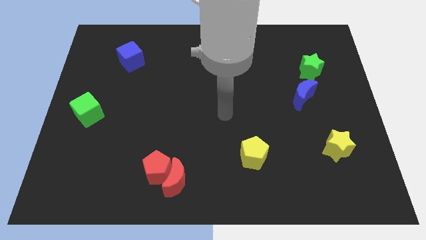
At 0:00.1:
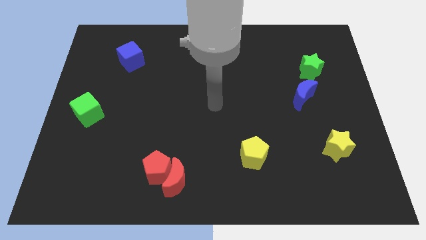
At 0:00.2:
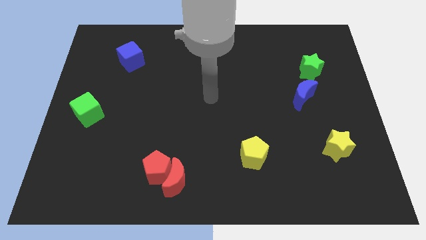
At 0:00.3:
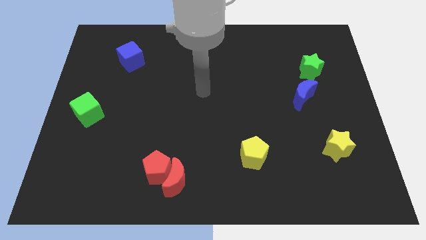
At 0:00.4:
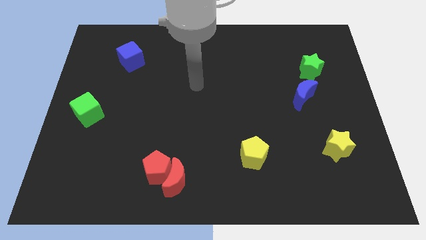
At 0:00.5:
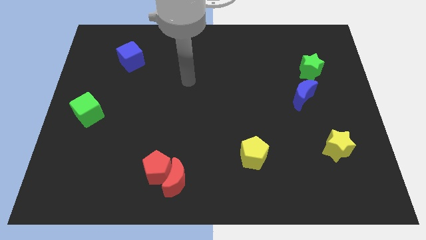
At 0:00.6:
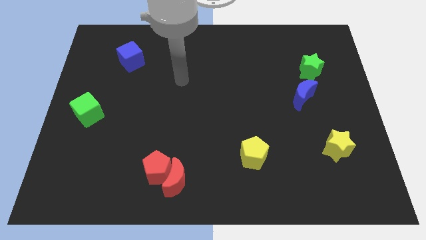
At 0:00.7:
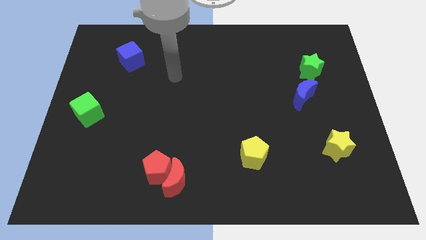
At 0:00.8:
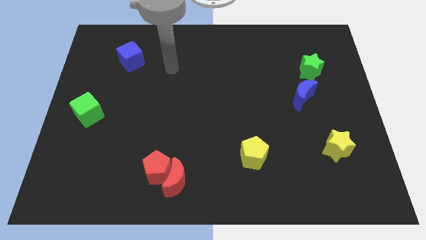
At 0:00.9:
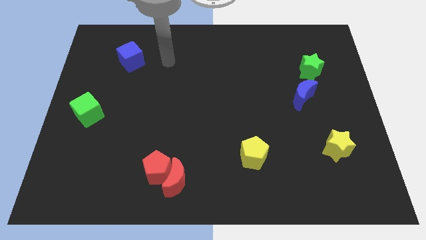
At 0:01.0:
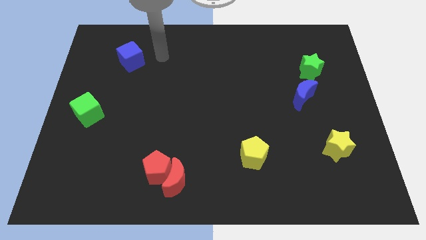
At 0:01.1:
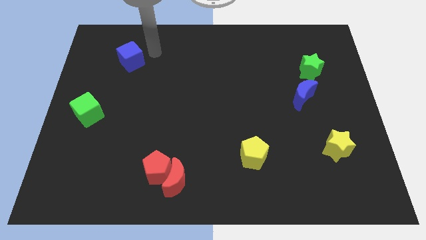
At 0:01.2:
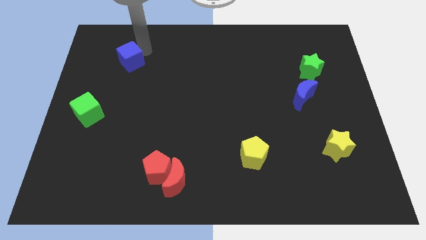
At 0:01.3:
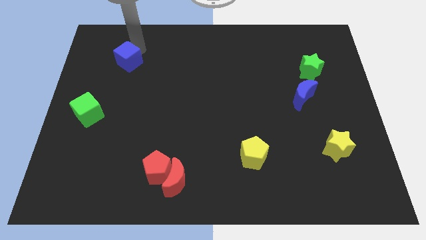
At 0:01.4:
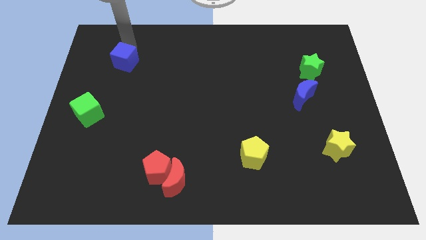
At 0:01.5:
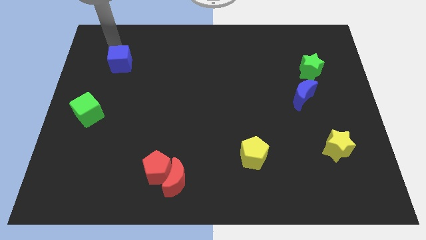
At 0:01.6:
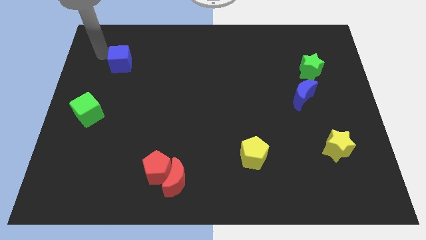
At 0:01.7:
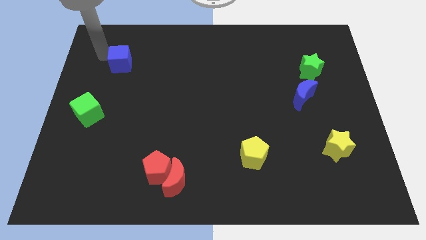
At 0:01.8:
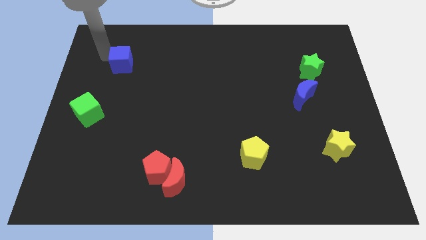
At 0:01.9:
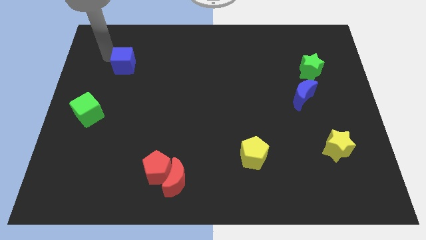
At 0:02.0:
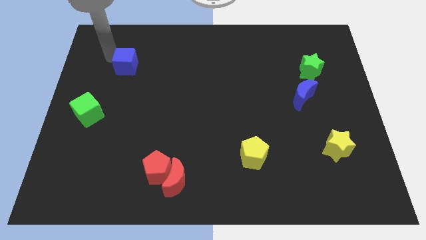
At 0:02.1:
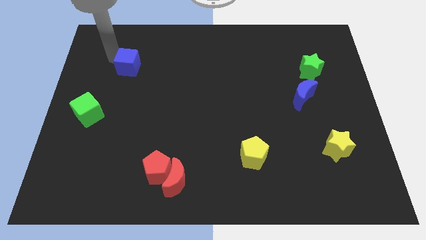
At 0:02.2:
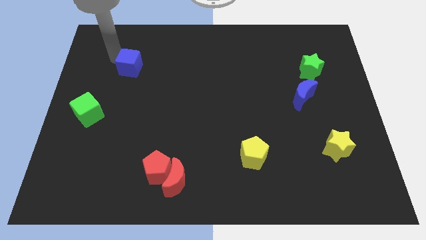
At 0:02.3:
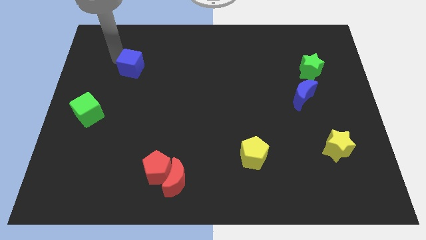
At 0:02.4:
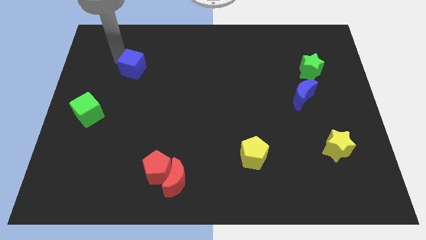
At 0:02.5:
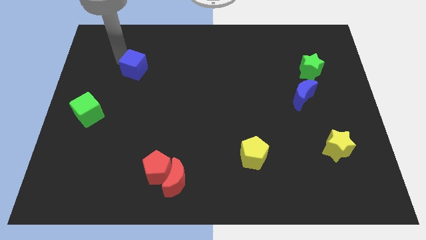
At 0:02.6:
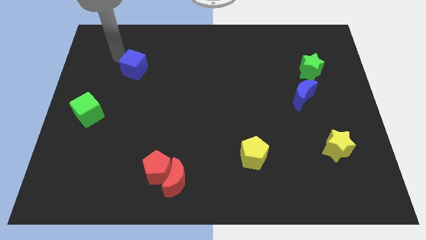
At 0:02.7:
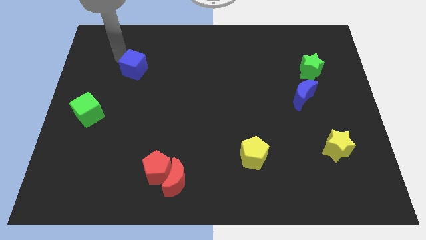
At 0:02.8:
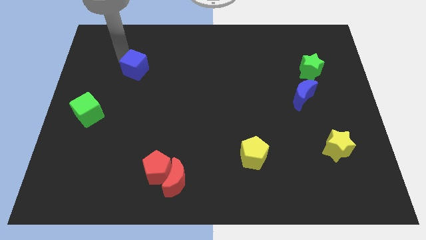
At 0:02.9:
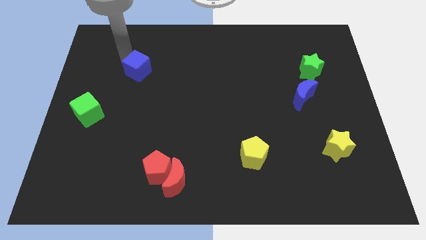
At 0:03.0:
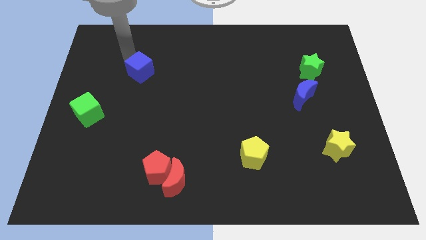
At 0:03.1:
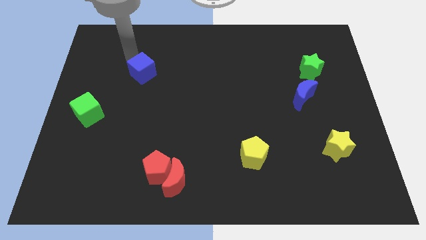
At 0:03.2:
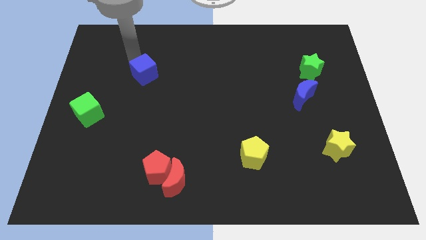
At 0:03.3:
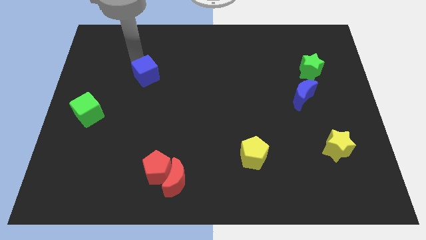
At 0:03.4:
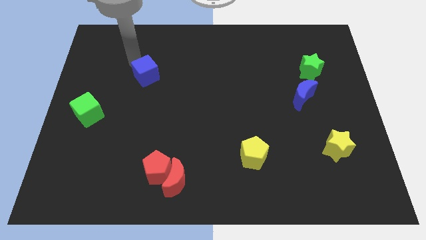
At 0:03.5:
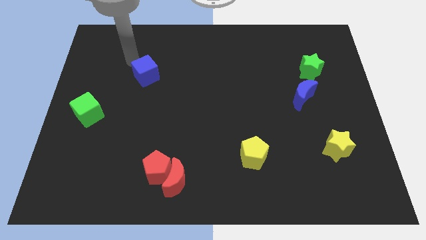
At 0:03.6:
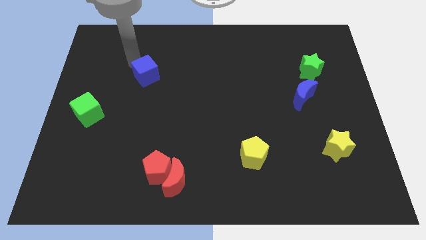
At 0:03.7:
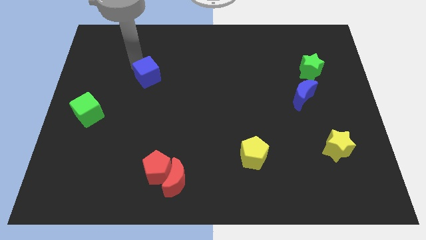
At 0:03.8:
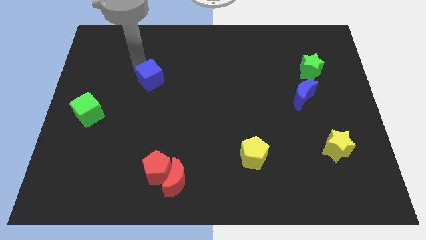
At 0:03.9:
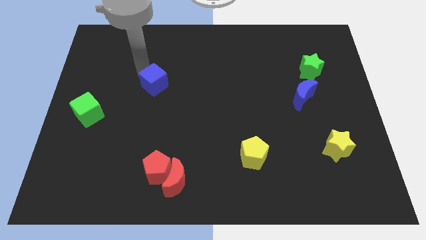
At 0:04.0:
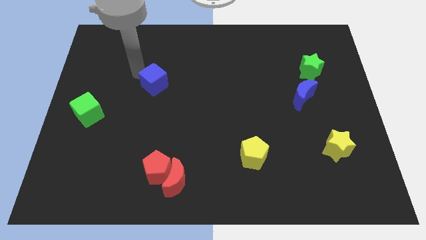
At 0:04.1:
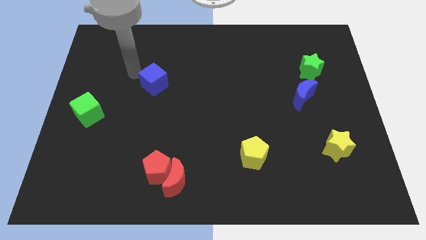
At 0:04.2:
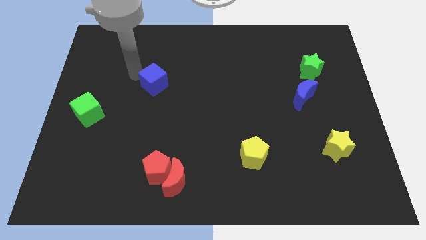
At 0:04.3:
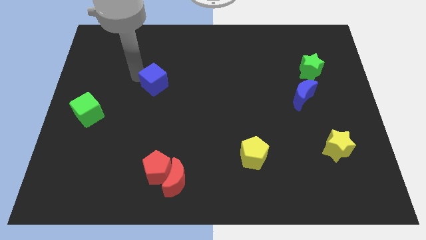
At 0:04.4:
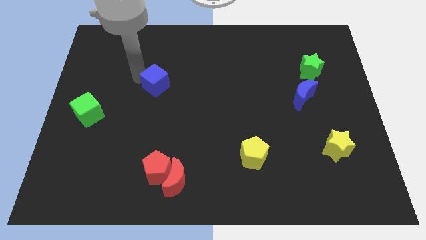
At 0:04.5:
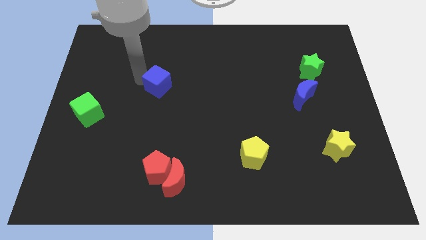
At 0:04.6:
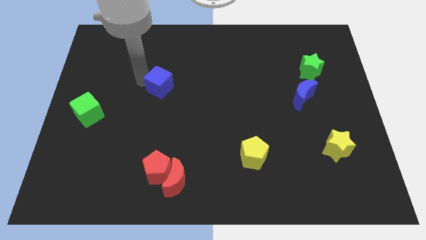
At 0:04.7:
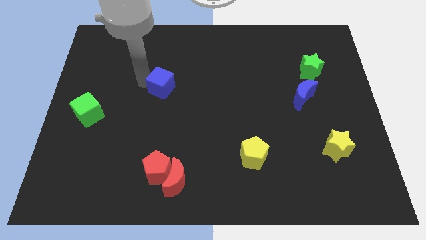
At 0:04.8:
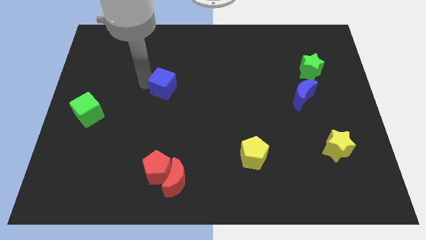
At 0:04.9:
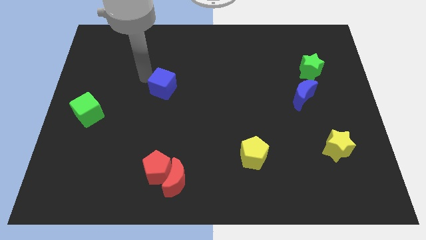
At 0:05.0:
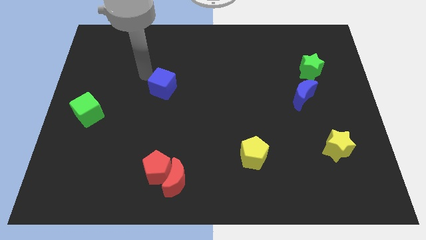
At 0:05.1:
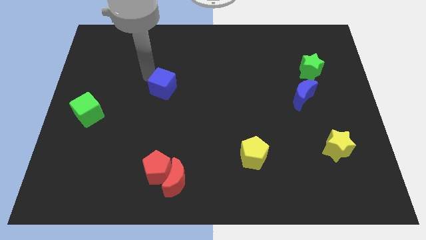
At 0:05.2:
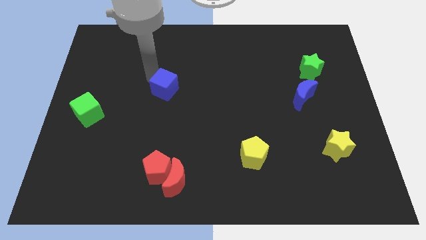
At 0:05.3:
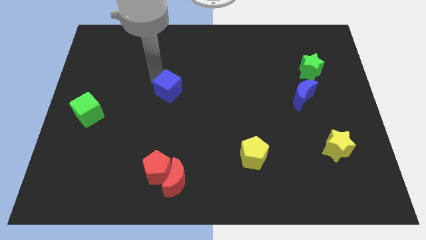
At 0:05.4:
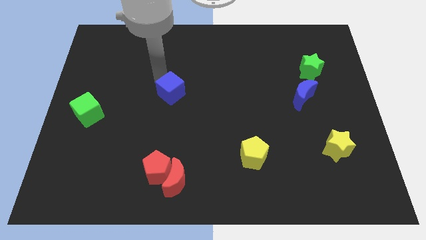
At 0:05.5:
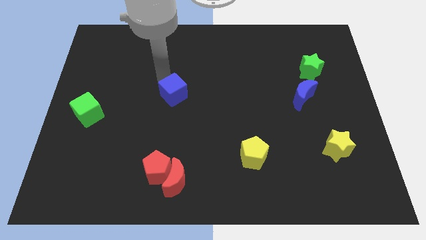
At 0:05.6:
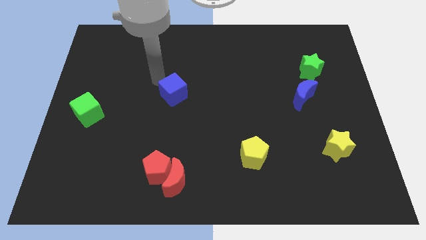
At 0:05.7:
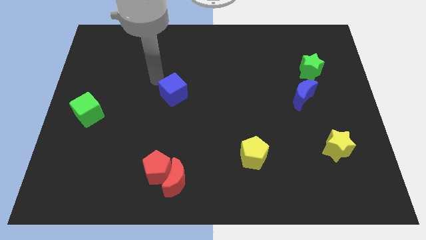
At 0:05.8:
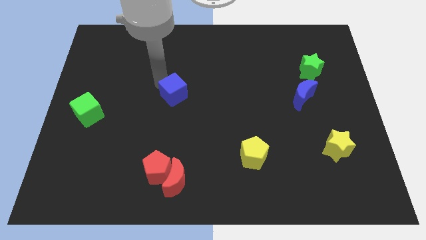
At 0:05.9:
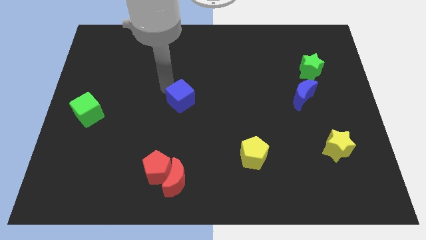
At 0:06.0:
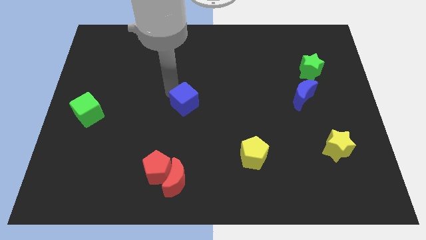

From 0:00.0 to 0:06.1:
move the blue cube down and to the right diagonally

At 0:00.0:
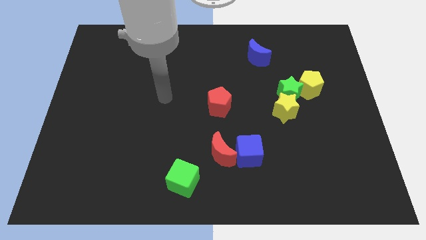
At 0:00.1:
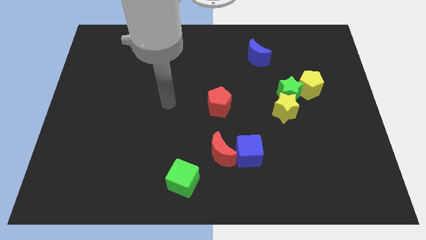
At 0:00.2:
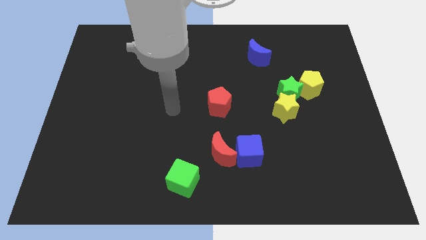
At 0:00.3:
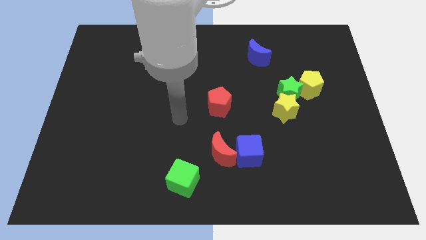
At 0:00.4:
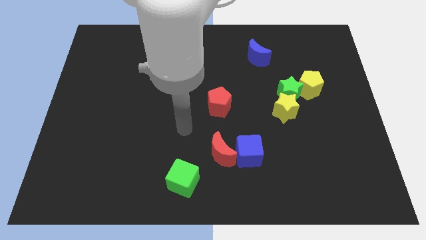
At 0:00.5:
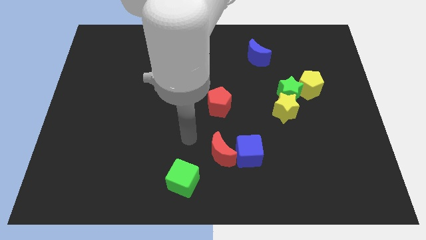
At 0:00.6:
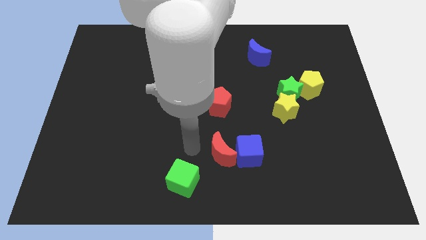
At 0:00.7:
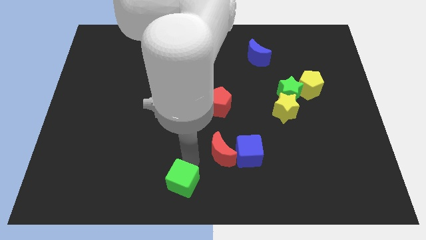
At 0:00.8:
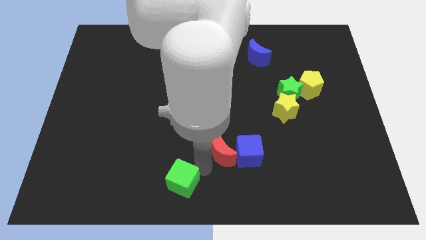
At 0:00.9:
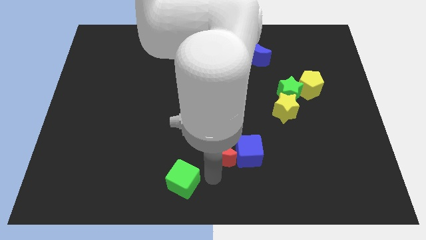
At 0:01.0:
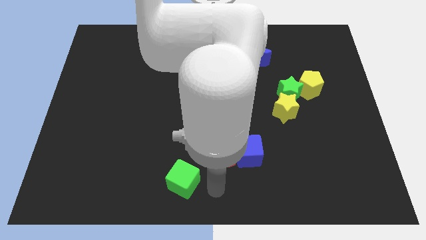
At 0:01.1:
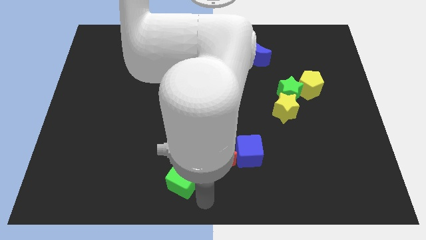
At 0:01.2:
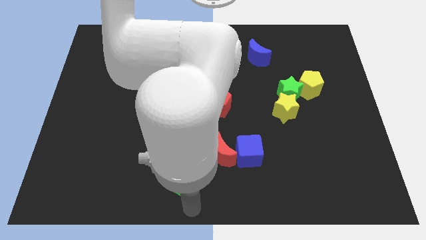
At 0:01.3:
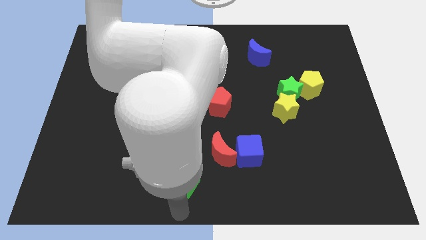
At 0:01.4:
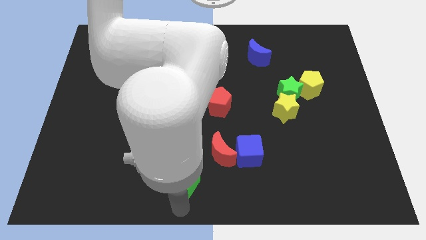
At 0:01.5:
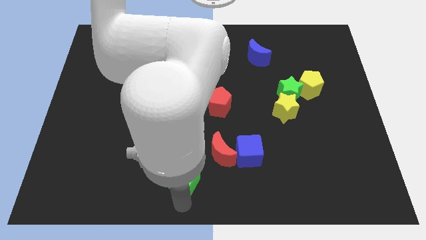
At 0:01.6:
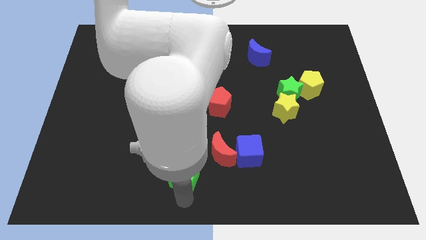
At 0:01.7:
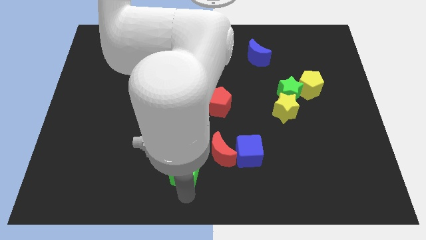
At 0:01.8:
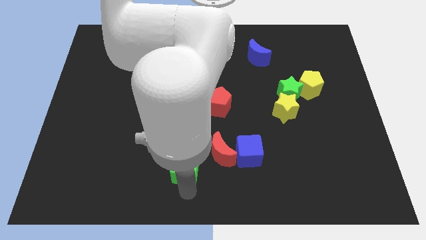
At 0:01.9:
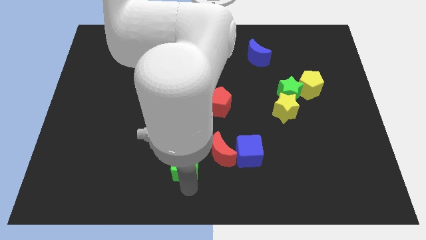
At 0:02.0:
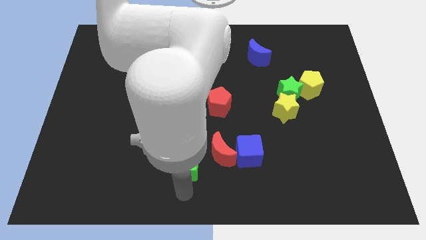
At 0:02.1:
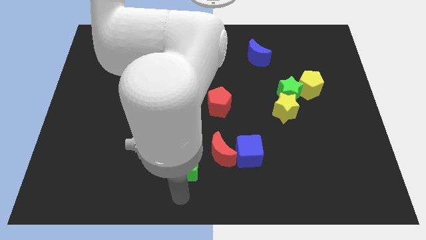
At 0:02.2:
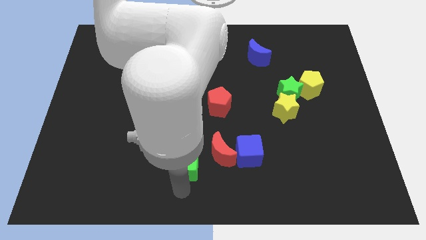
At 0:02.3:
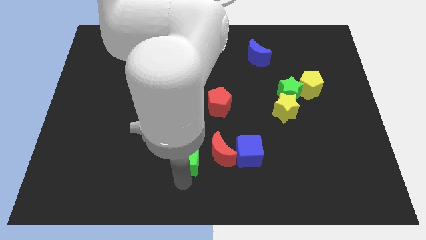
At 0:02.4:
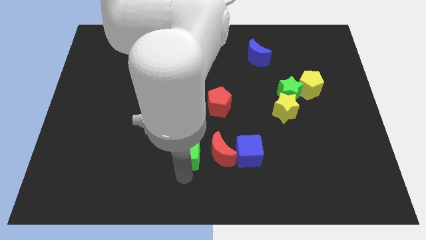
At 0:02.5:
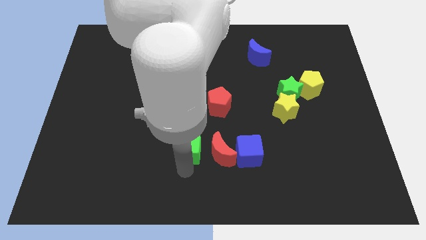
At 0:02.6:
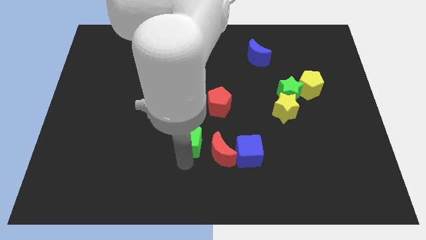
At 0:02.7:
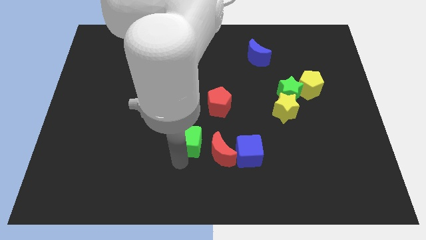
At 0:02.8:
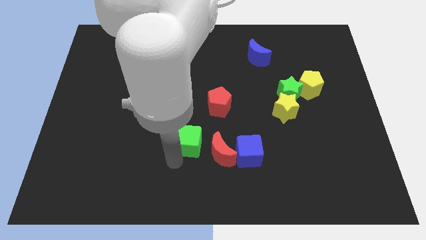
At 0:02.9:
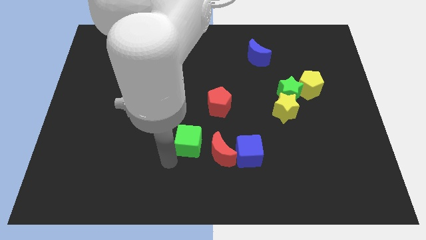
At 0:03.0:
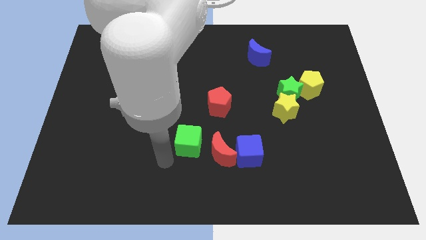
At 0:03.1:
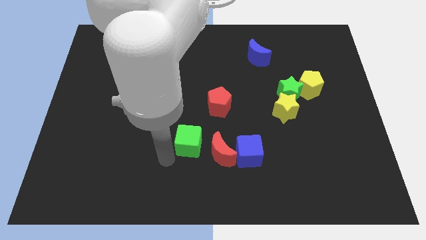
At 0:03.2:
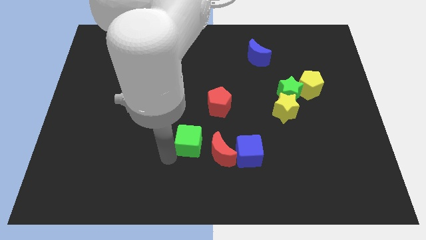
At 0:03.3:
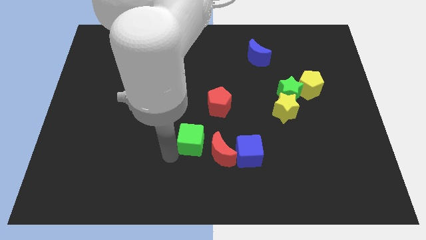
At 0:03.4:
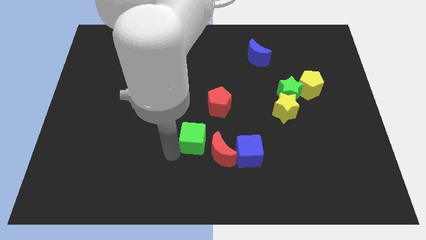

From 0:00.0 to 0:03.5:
slightly move the green cube upwards and then right
